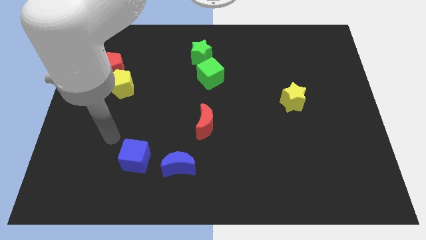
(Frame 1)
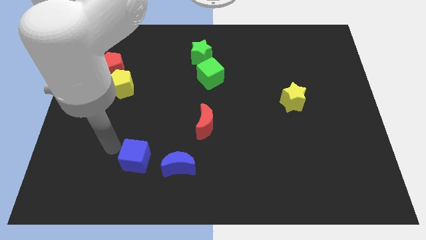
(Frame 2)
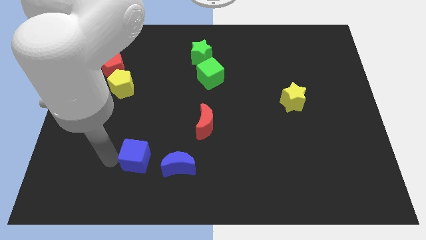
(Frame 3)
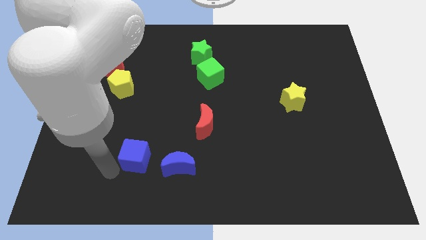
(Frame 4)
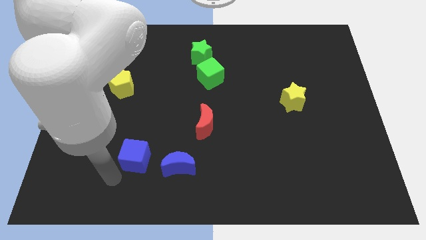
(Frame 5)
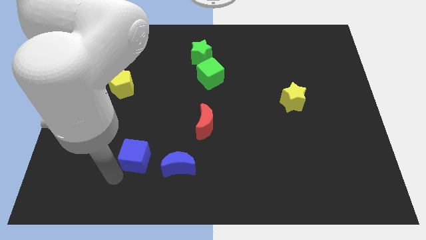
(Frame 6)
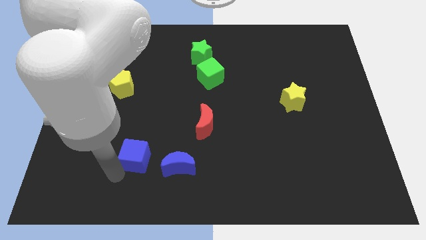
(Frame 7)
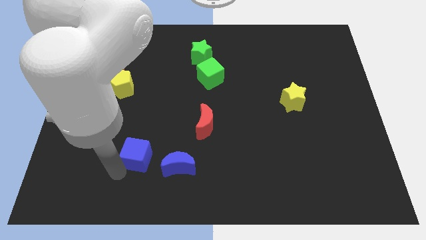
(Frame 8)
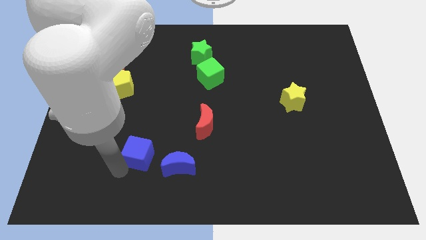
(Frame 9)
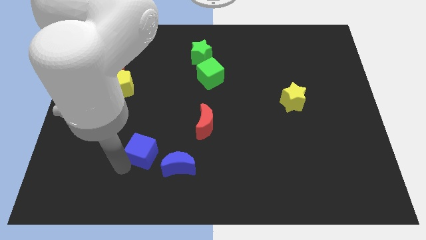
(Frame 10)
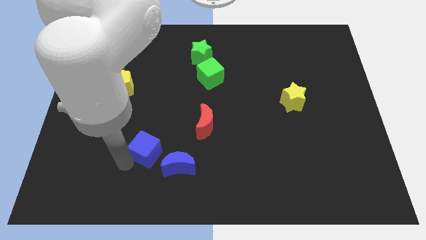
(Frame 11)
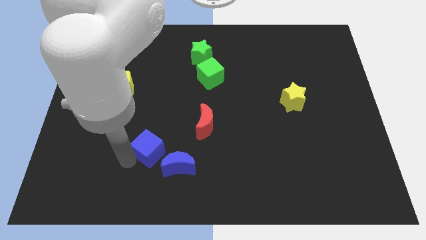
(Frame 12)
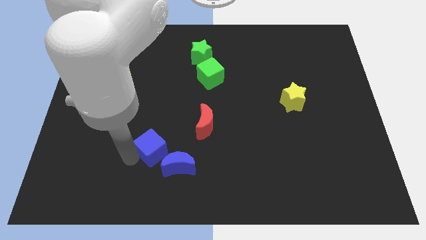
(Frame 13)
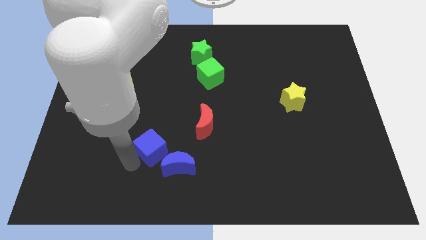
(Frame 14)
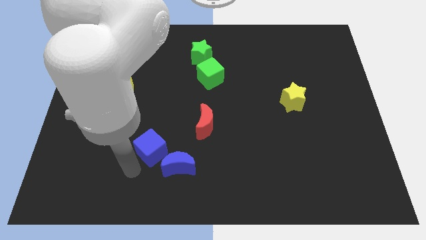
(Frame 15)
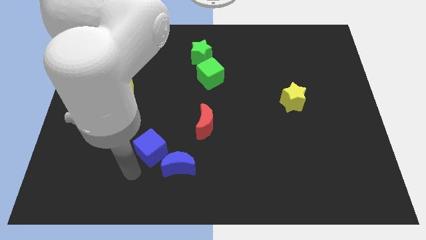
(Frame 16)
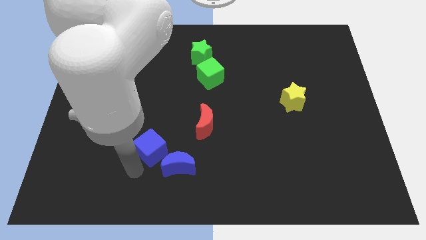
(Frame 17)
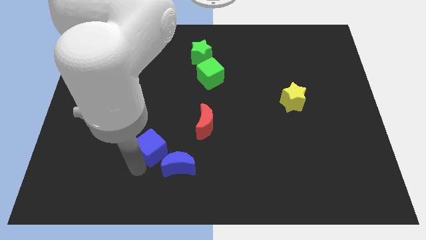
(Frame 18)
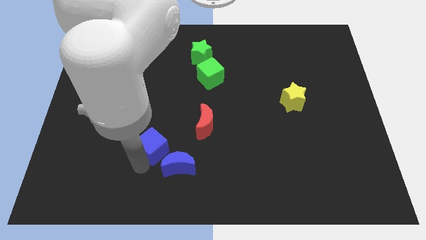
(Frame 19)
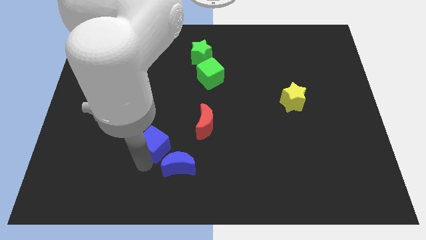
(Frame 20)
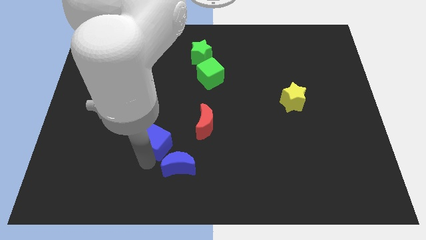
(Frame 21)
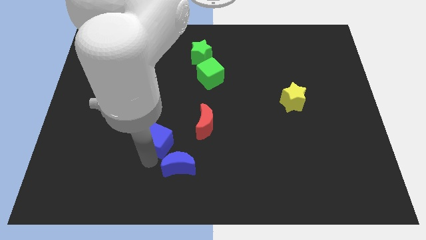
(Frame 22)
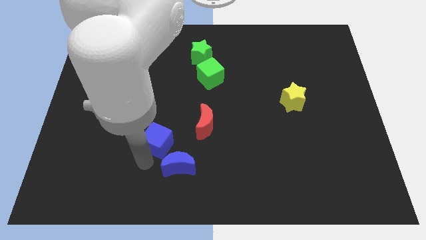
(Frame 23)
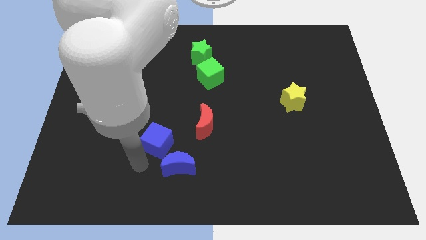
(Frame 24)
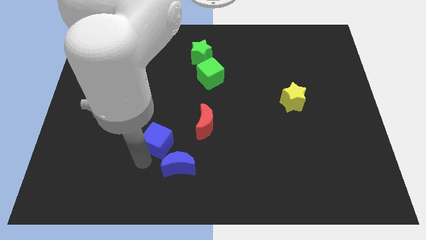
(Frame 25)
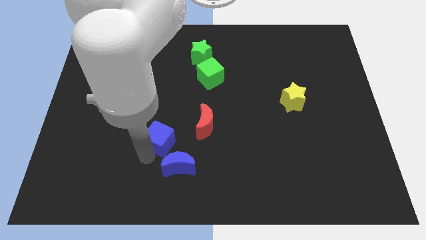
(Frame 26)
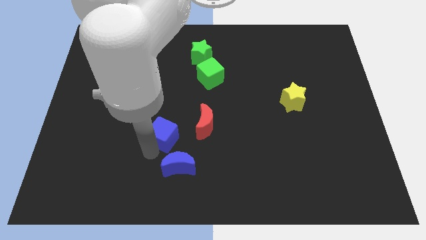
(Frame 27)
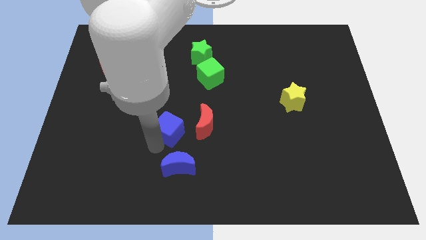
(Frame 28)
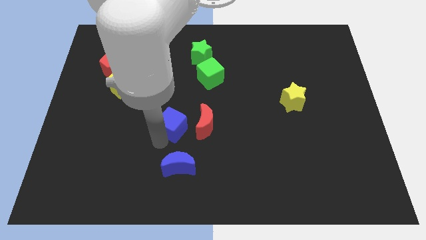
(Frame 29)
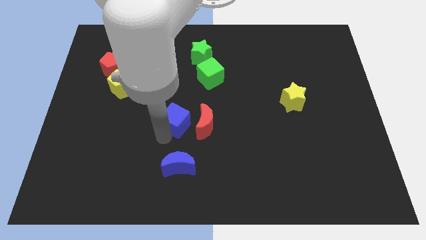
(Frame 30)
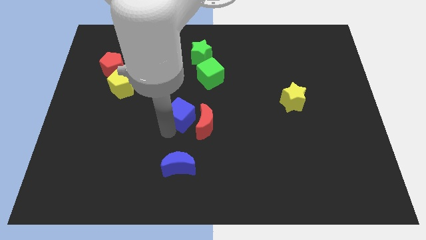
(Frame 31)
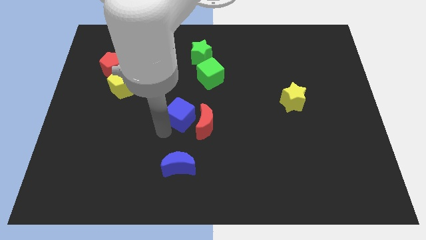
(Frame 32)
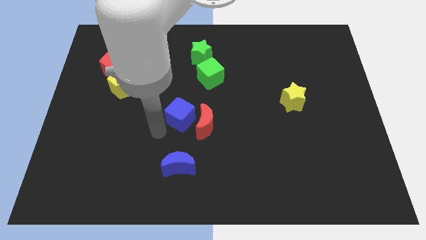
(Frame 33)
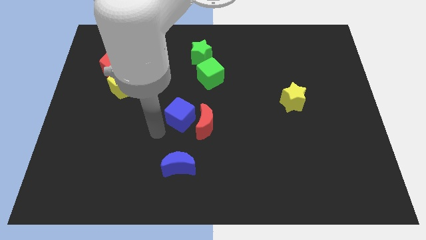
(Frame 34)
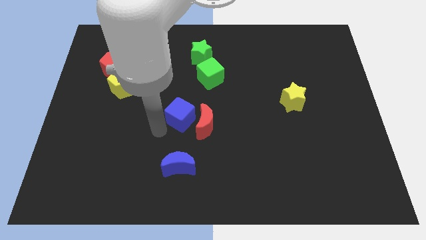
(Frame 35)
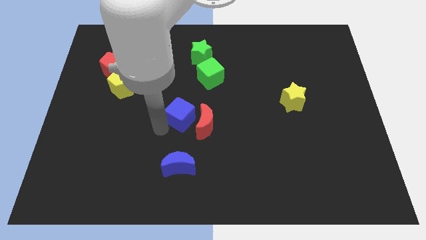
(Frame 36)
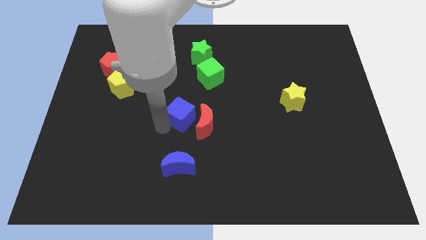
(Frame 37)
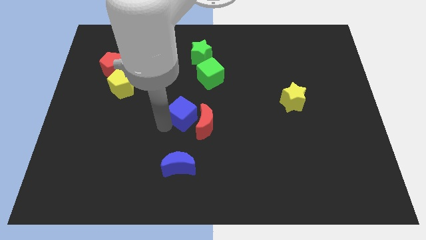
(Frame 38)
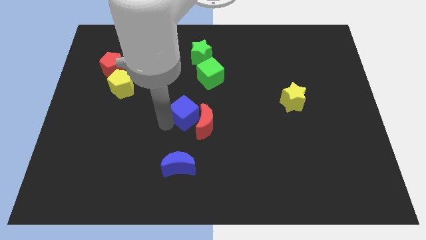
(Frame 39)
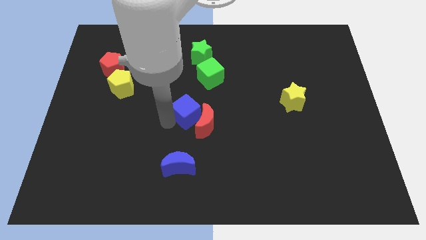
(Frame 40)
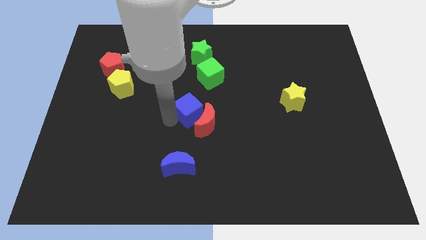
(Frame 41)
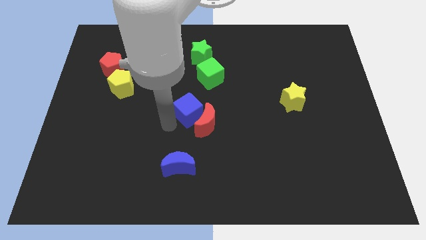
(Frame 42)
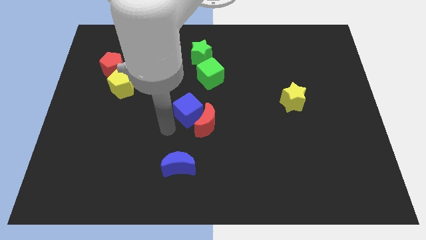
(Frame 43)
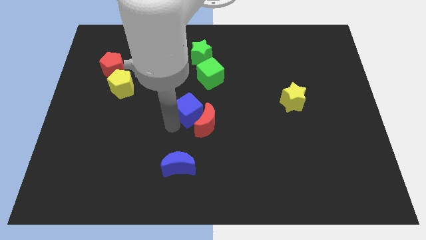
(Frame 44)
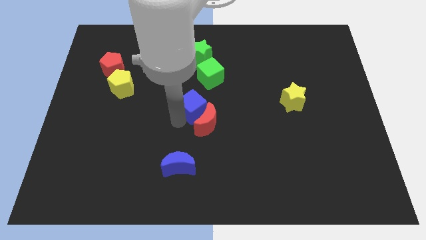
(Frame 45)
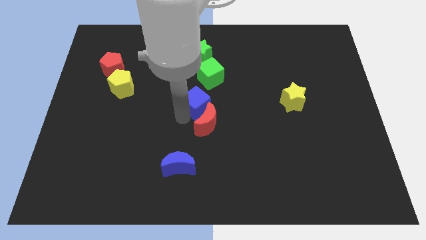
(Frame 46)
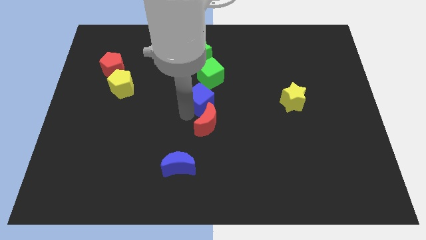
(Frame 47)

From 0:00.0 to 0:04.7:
move the blue cube upwards and right diagonally

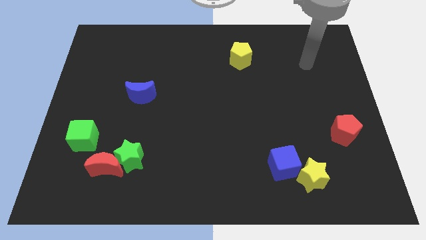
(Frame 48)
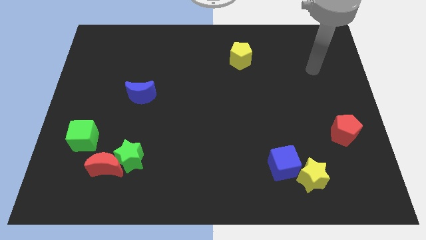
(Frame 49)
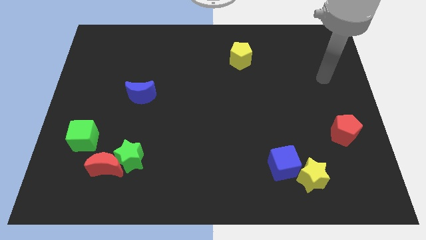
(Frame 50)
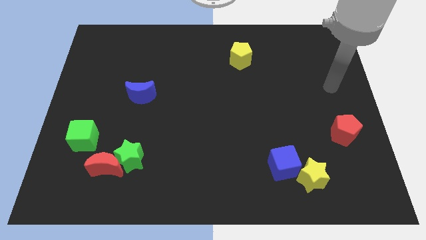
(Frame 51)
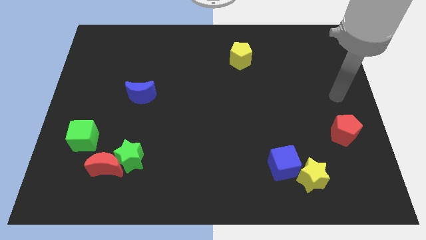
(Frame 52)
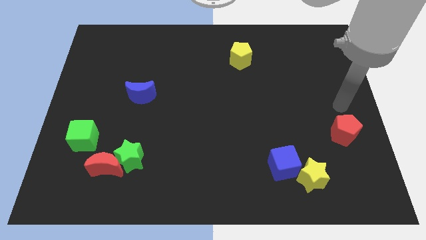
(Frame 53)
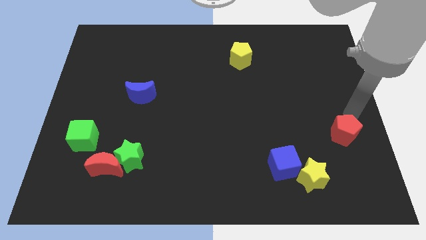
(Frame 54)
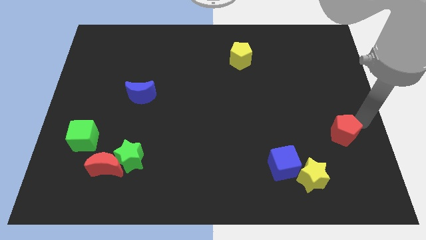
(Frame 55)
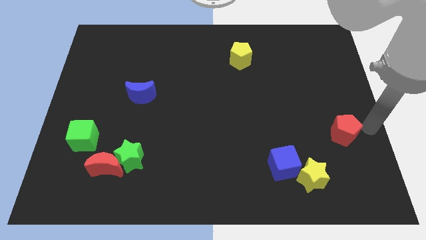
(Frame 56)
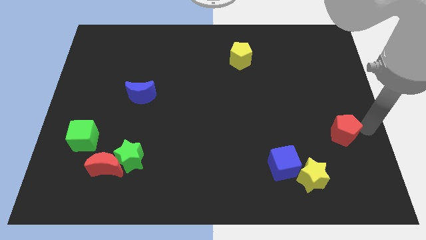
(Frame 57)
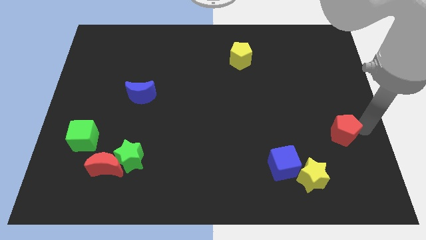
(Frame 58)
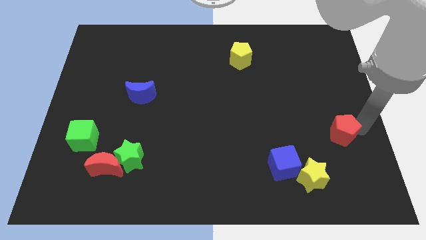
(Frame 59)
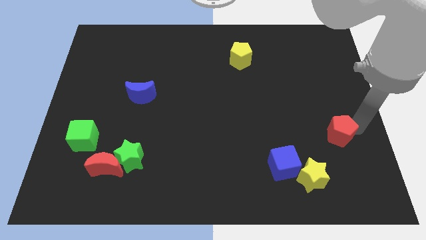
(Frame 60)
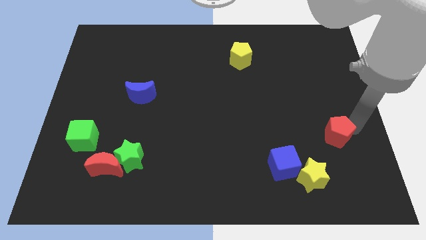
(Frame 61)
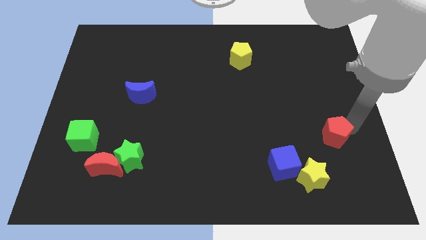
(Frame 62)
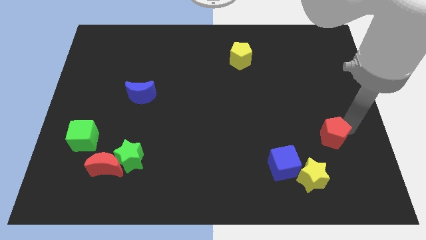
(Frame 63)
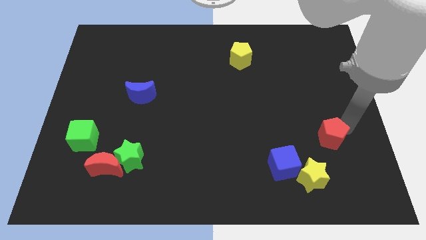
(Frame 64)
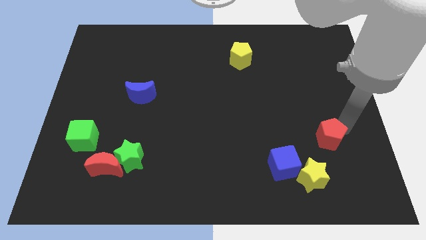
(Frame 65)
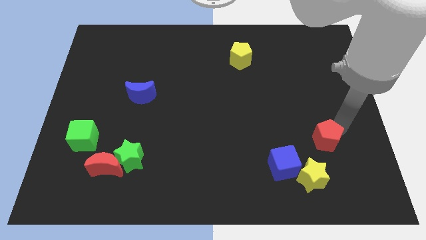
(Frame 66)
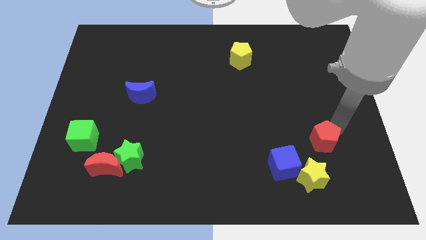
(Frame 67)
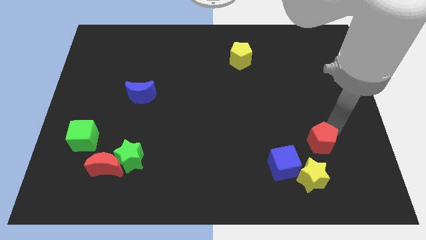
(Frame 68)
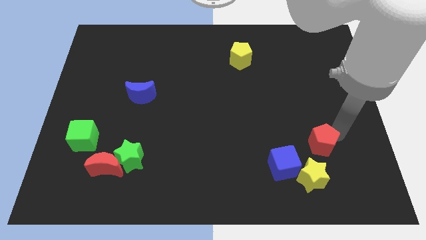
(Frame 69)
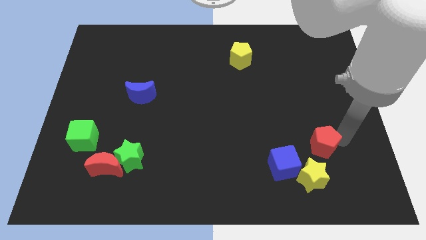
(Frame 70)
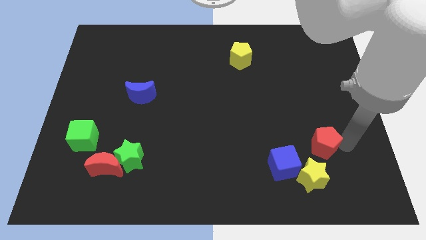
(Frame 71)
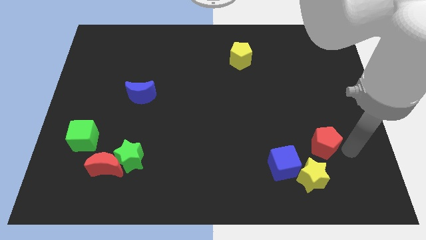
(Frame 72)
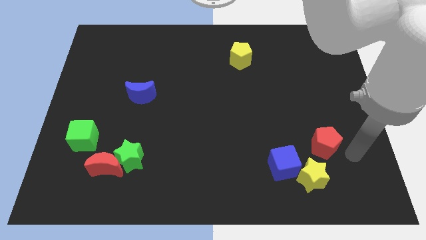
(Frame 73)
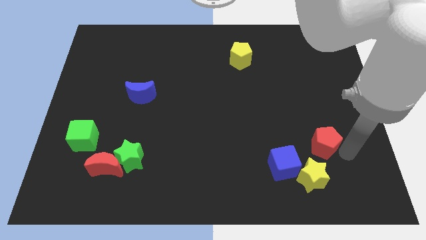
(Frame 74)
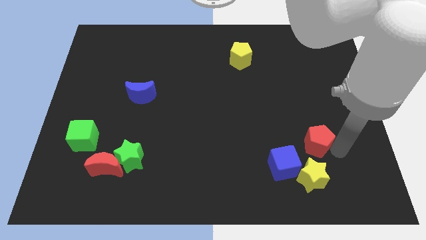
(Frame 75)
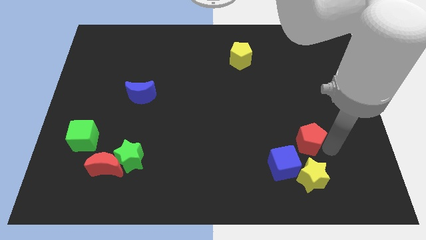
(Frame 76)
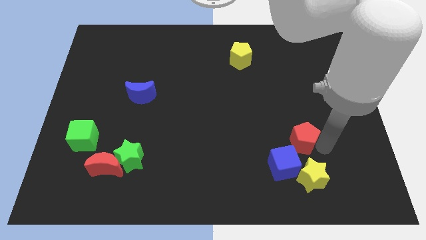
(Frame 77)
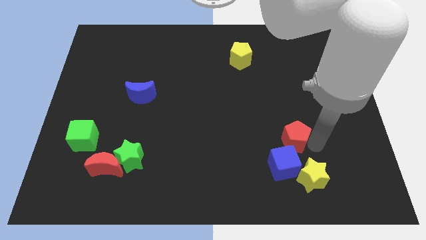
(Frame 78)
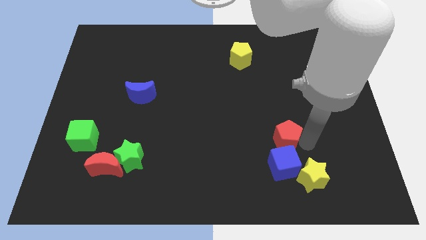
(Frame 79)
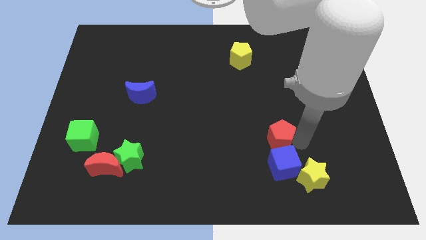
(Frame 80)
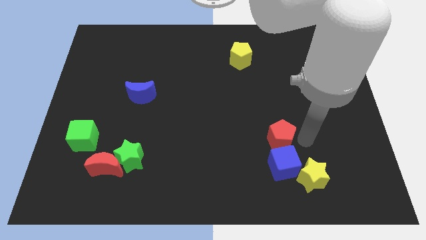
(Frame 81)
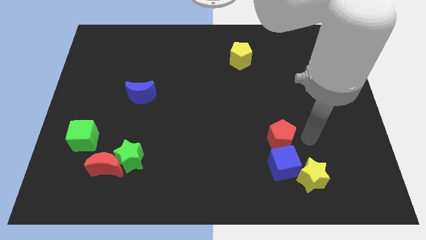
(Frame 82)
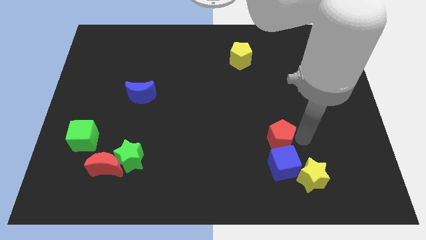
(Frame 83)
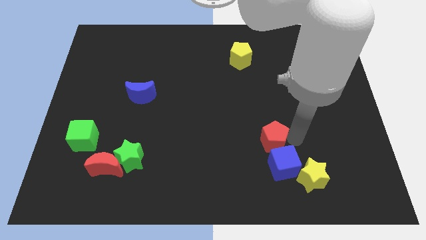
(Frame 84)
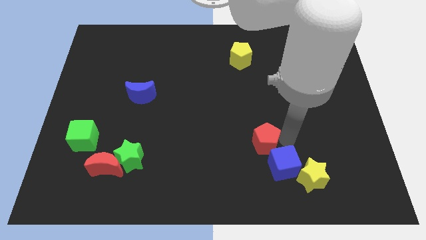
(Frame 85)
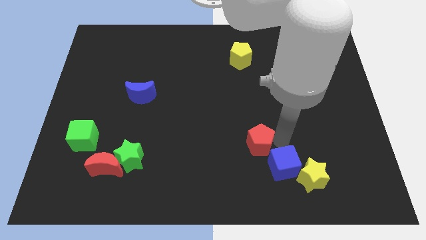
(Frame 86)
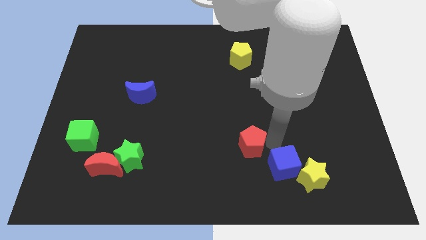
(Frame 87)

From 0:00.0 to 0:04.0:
push the red pentagon left
